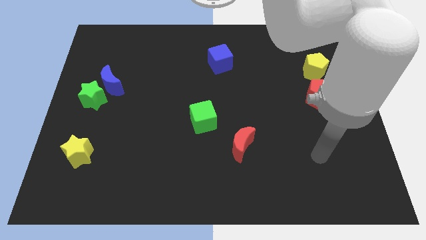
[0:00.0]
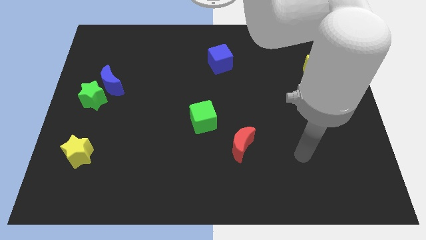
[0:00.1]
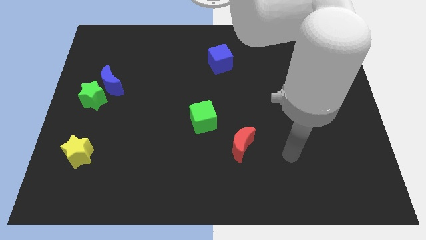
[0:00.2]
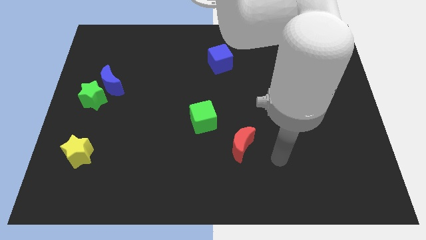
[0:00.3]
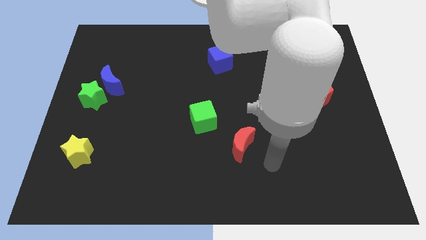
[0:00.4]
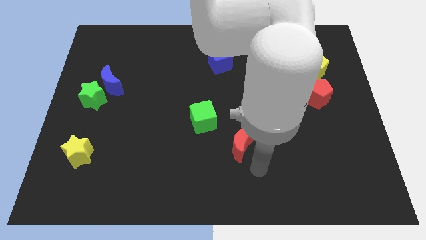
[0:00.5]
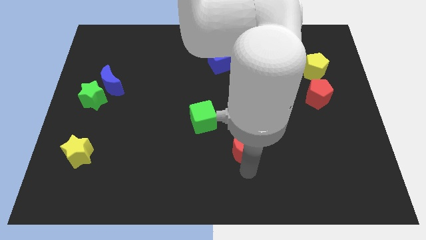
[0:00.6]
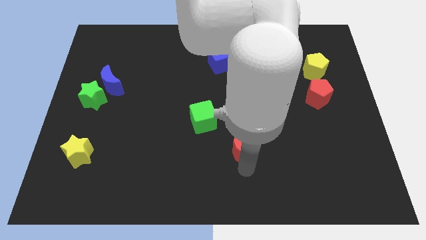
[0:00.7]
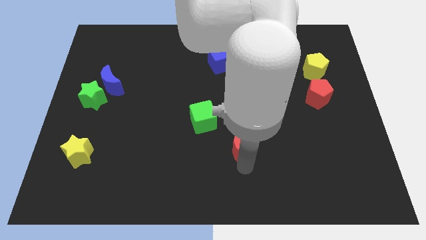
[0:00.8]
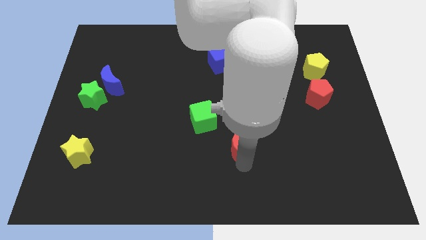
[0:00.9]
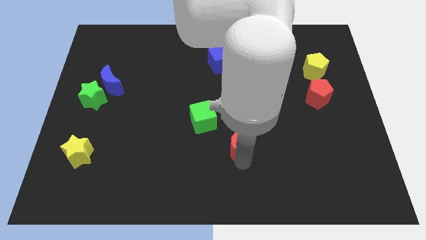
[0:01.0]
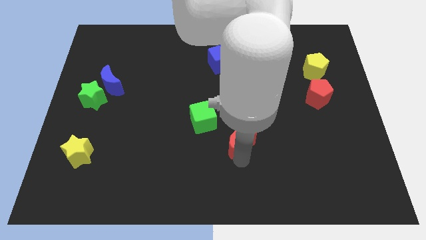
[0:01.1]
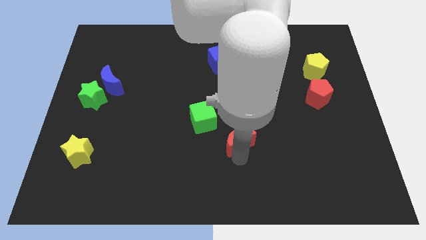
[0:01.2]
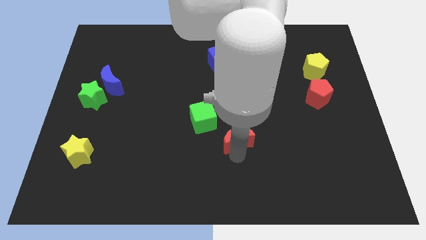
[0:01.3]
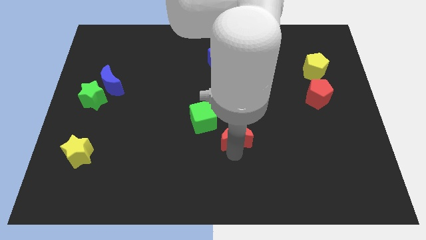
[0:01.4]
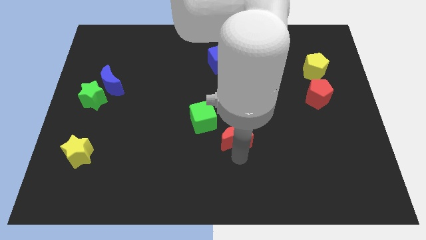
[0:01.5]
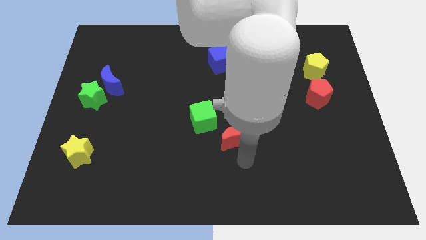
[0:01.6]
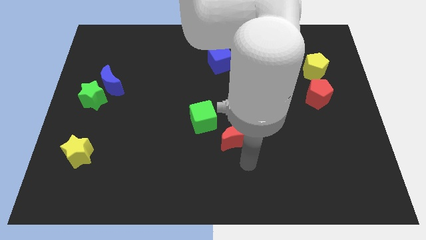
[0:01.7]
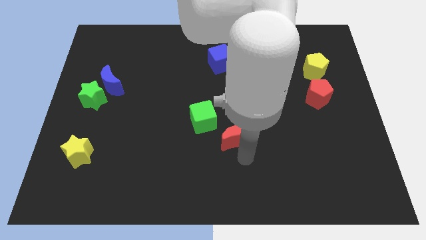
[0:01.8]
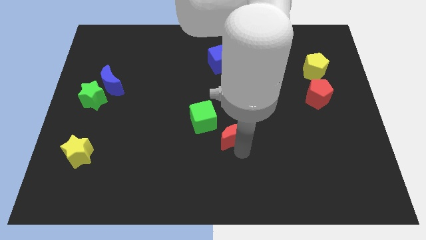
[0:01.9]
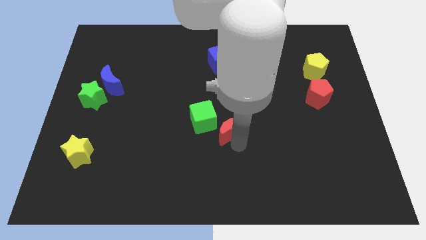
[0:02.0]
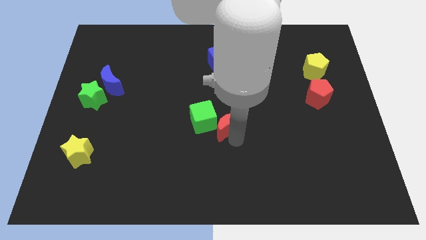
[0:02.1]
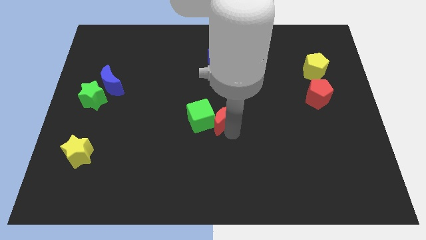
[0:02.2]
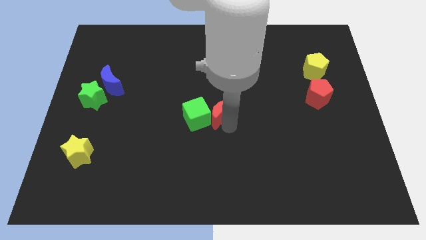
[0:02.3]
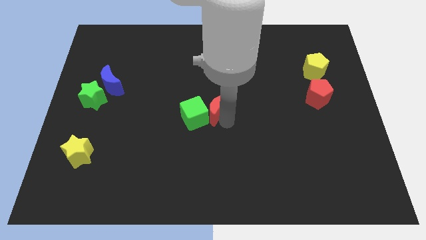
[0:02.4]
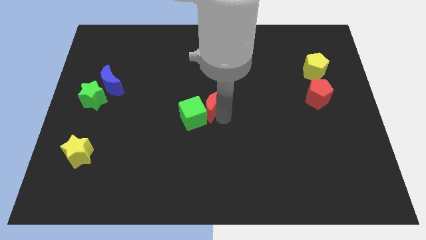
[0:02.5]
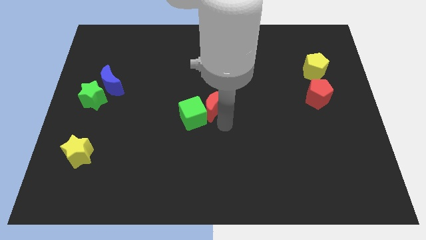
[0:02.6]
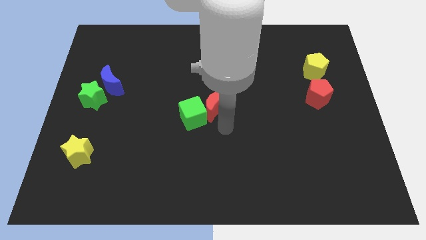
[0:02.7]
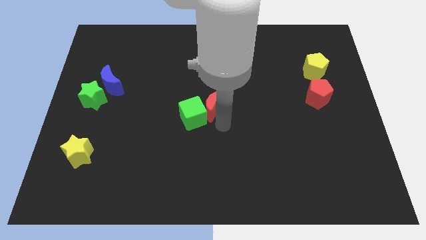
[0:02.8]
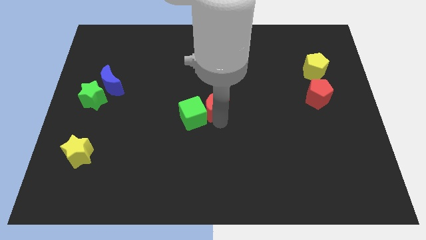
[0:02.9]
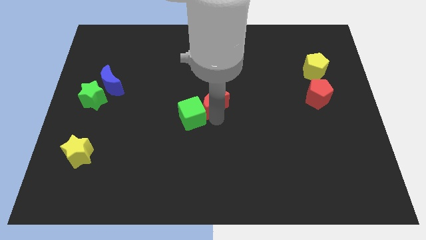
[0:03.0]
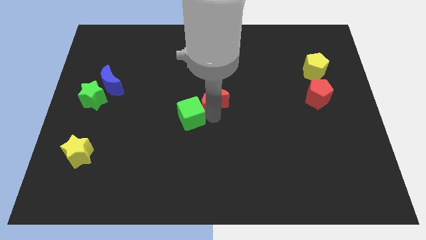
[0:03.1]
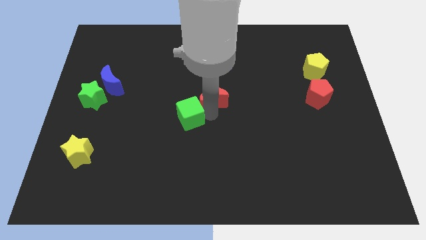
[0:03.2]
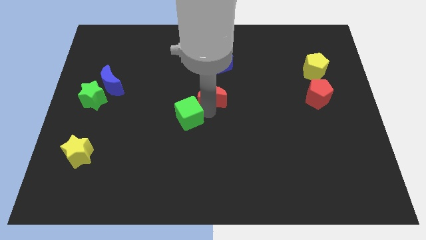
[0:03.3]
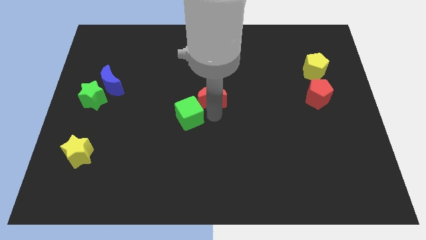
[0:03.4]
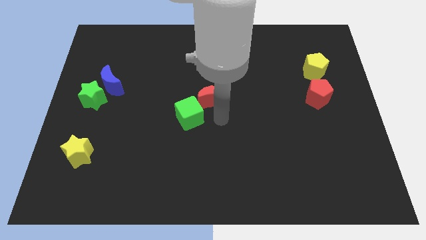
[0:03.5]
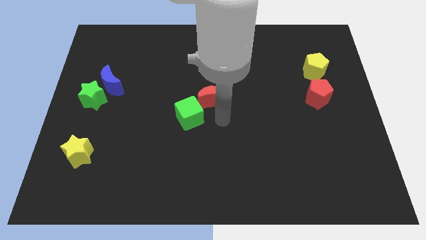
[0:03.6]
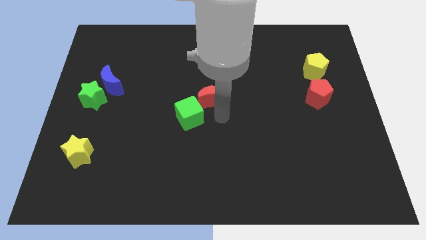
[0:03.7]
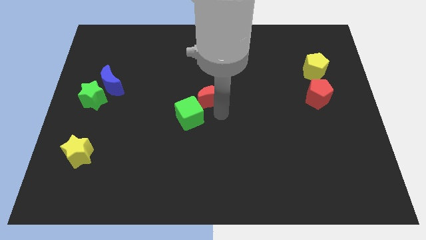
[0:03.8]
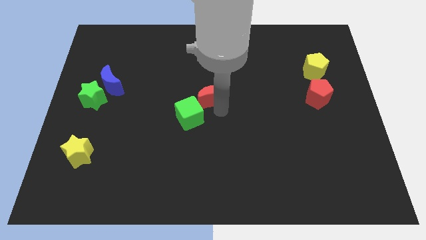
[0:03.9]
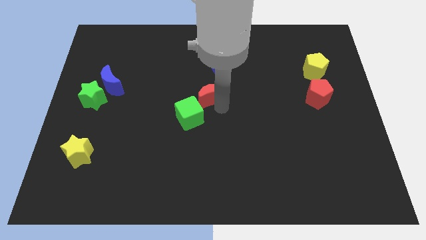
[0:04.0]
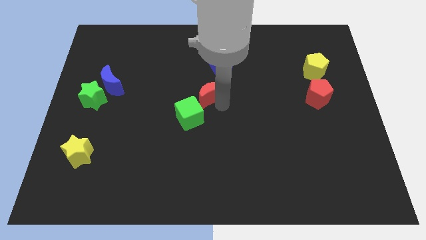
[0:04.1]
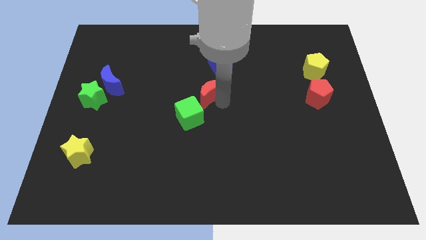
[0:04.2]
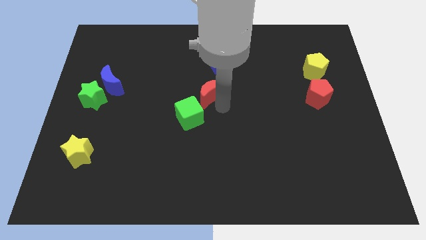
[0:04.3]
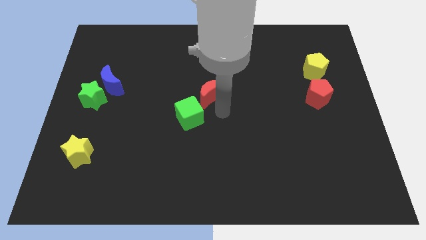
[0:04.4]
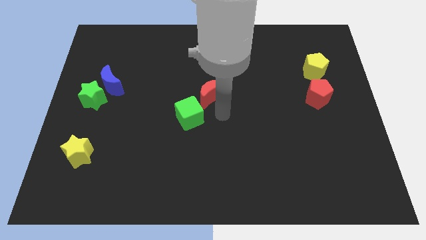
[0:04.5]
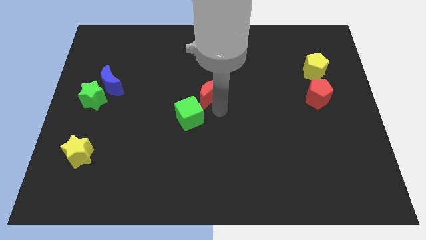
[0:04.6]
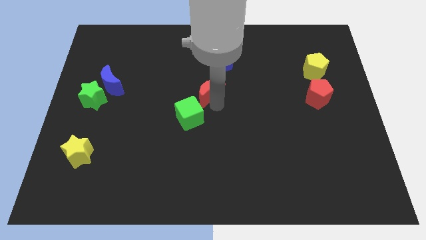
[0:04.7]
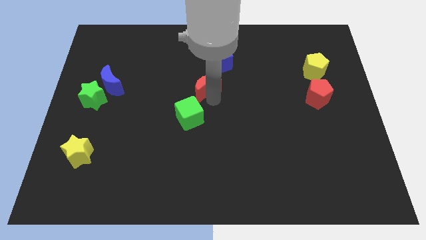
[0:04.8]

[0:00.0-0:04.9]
move the red moon to the bottom left side of the blue cube

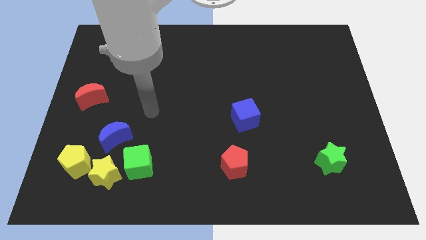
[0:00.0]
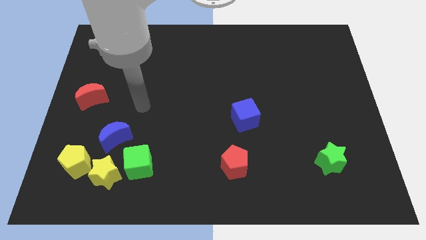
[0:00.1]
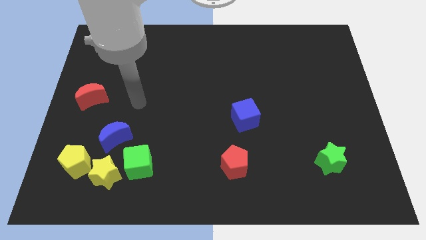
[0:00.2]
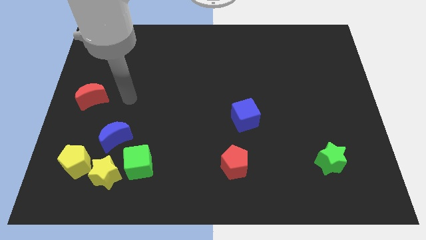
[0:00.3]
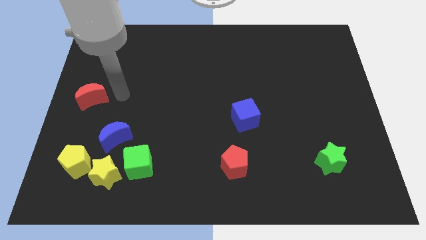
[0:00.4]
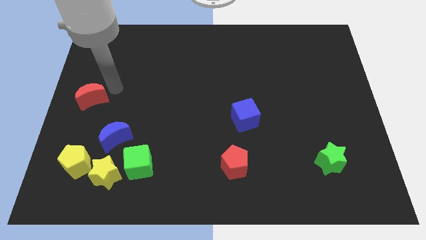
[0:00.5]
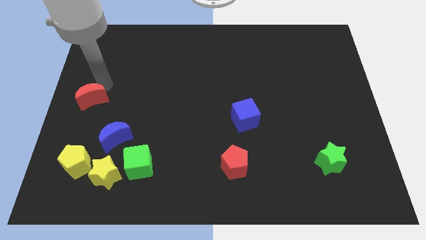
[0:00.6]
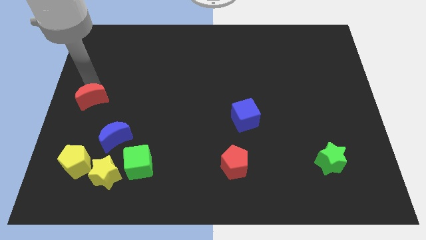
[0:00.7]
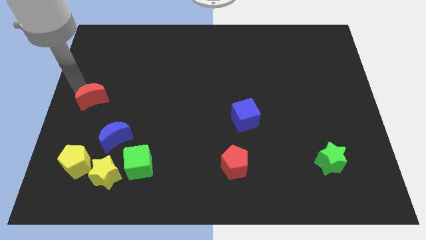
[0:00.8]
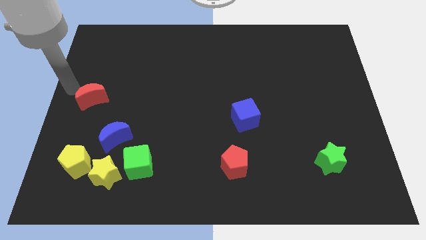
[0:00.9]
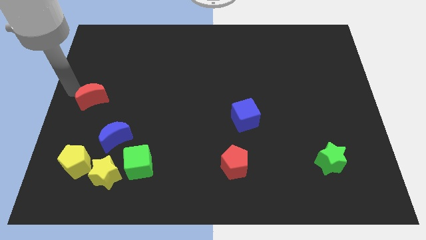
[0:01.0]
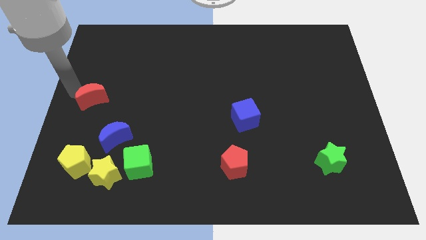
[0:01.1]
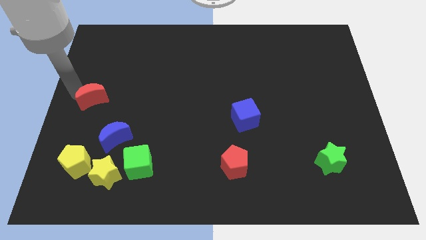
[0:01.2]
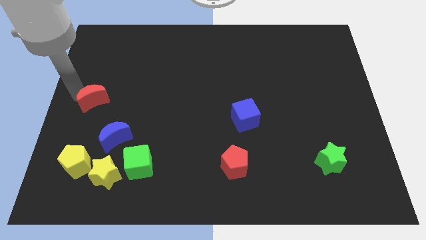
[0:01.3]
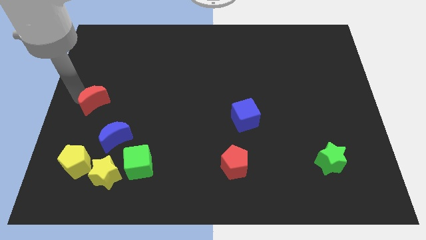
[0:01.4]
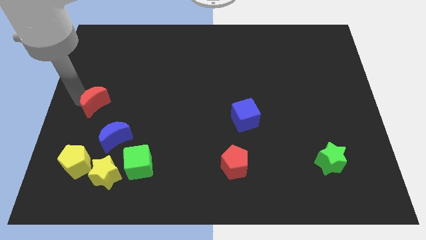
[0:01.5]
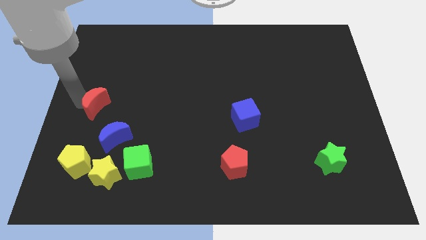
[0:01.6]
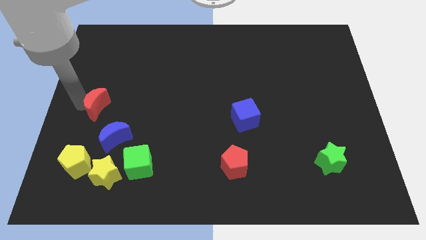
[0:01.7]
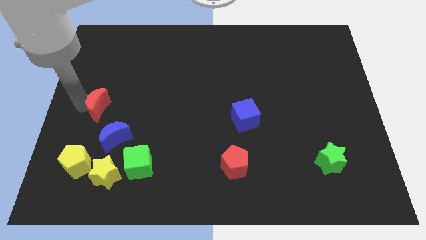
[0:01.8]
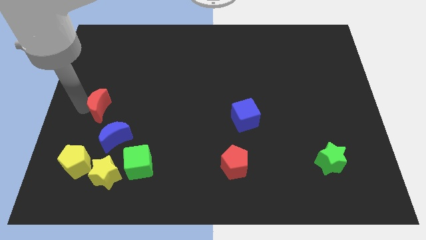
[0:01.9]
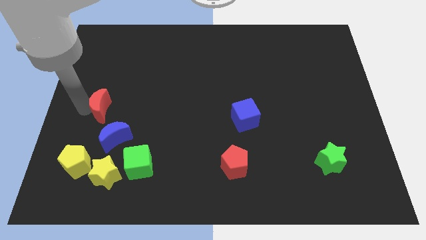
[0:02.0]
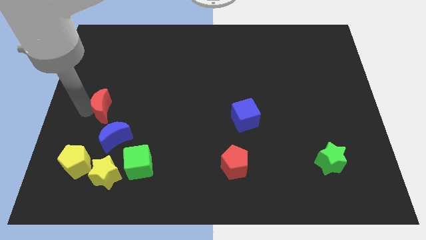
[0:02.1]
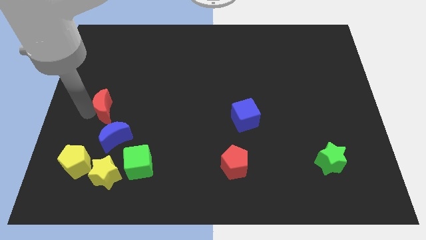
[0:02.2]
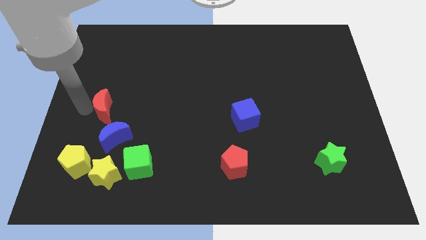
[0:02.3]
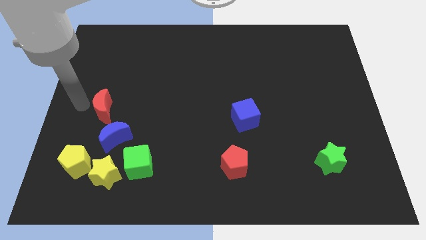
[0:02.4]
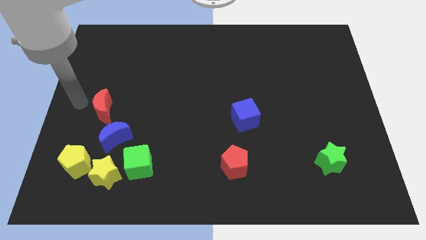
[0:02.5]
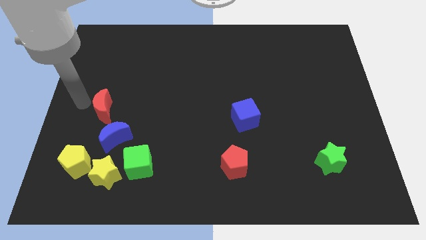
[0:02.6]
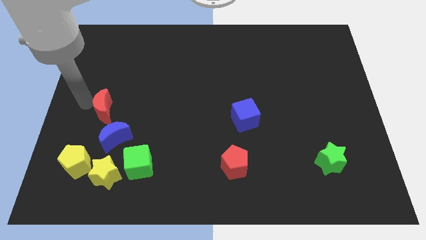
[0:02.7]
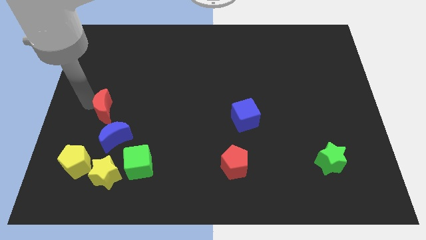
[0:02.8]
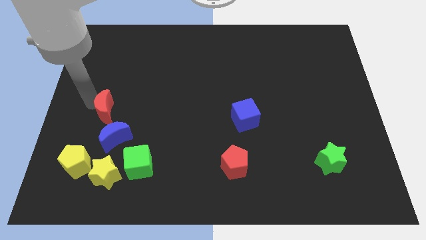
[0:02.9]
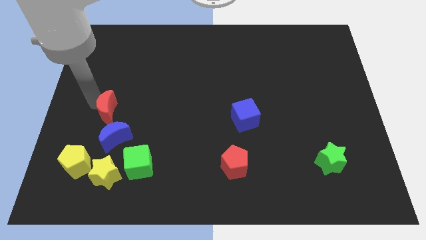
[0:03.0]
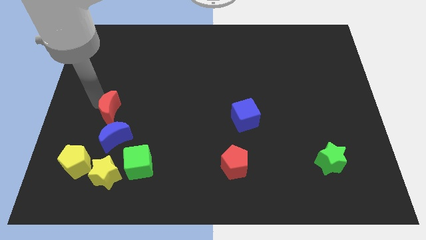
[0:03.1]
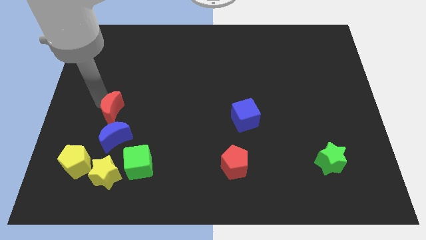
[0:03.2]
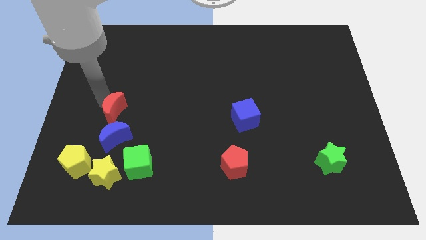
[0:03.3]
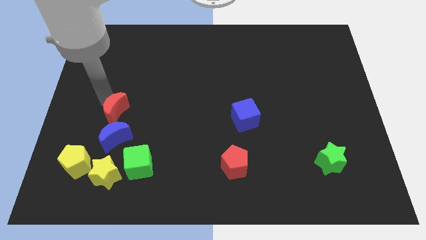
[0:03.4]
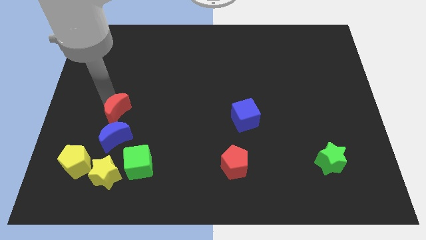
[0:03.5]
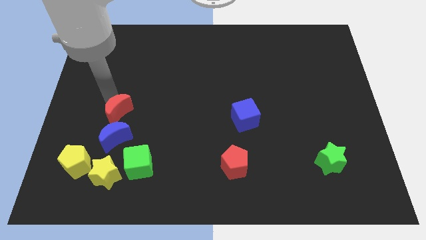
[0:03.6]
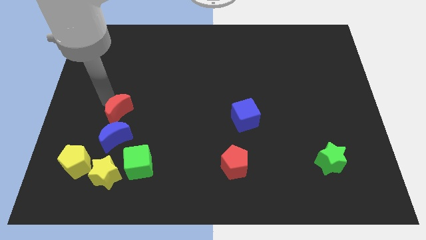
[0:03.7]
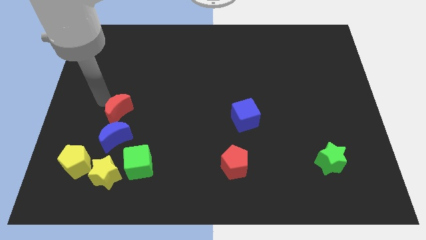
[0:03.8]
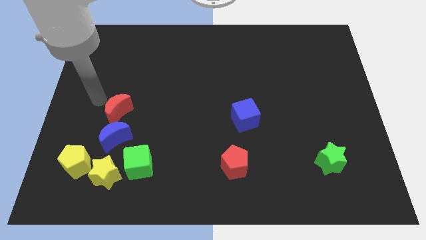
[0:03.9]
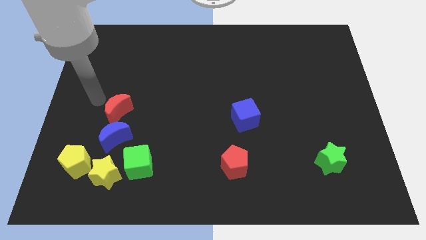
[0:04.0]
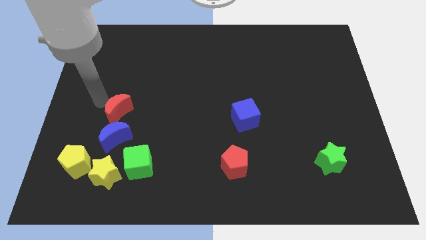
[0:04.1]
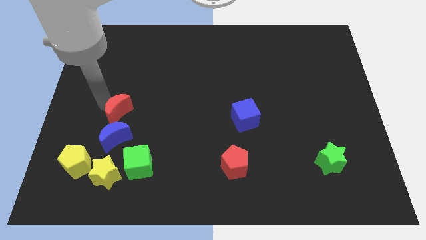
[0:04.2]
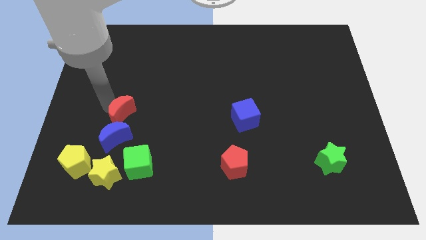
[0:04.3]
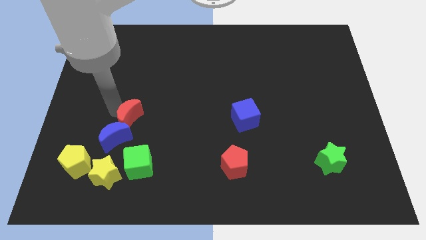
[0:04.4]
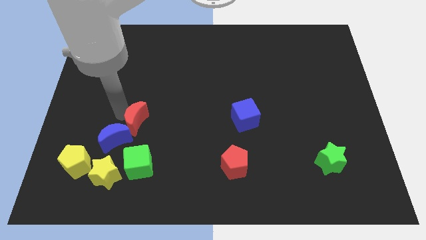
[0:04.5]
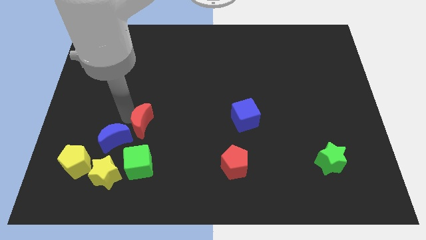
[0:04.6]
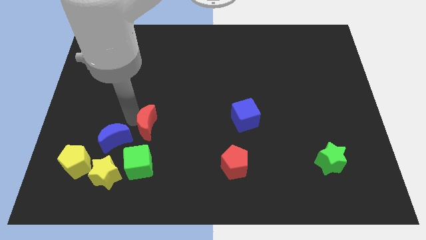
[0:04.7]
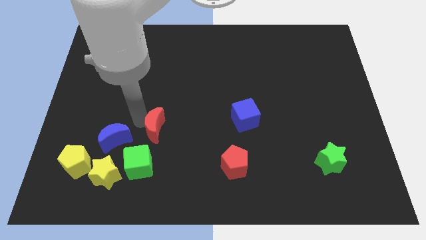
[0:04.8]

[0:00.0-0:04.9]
put the red moon to the top right of the green cube
